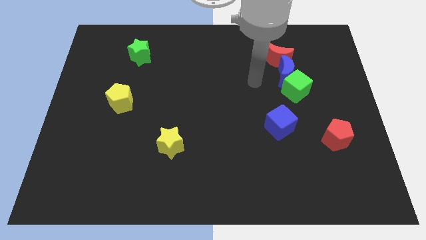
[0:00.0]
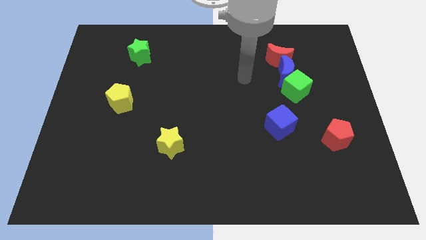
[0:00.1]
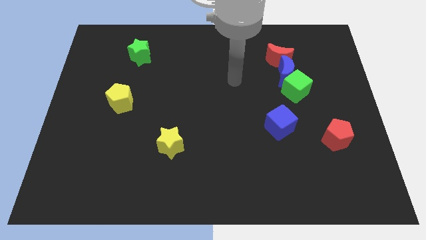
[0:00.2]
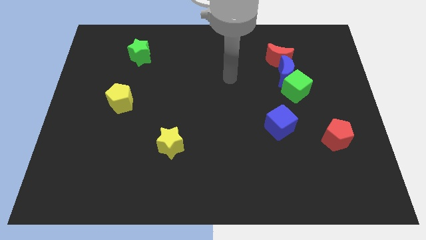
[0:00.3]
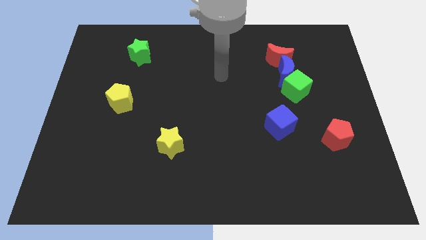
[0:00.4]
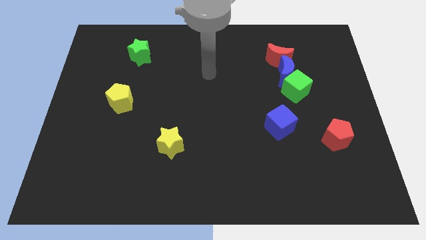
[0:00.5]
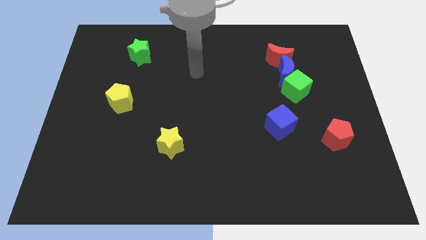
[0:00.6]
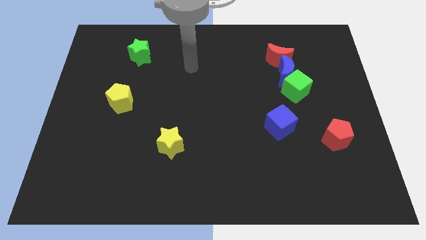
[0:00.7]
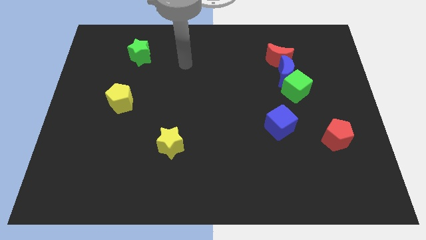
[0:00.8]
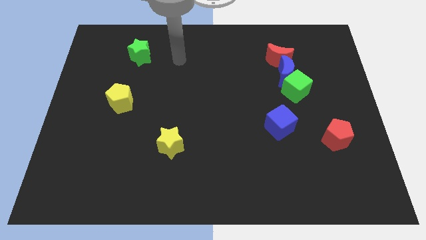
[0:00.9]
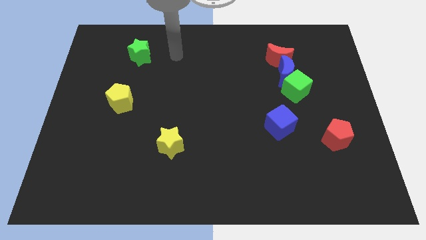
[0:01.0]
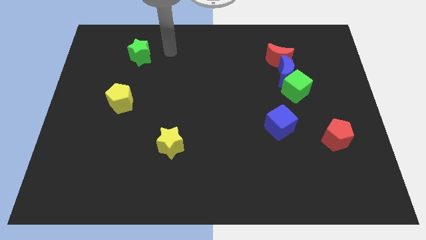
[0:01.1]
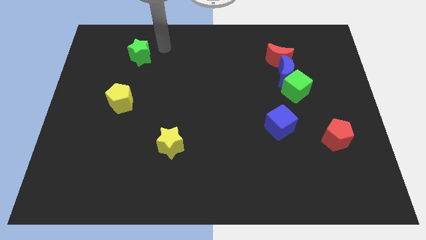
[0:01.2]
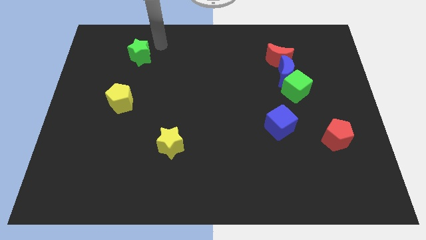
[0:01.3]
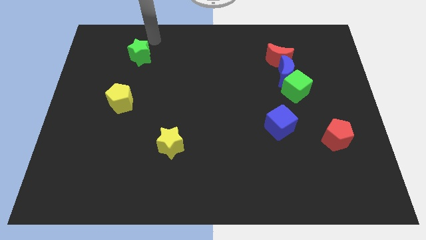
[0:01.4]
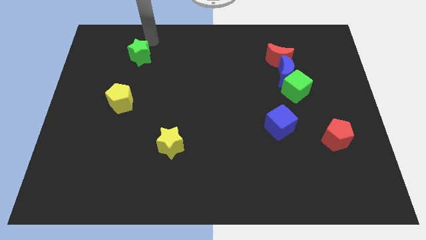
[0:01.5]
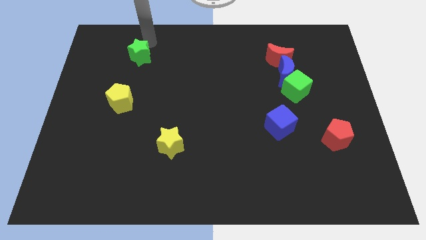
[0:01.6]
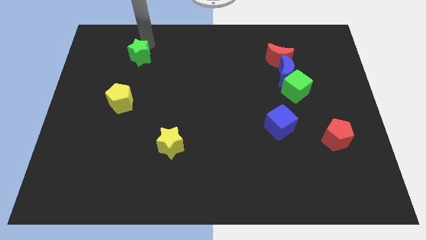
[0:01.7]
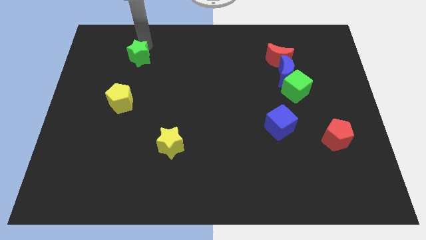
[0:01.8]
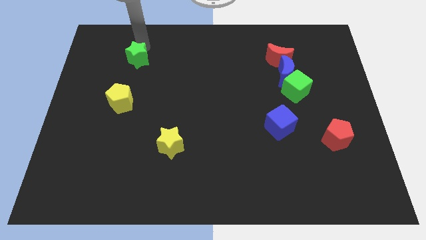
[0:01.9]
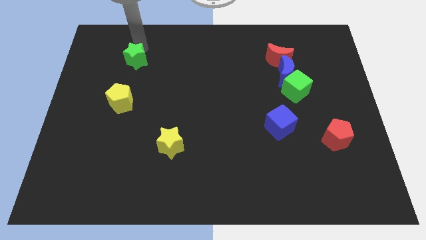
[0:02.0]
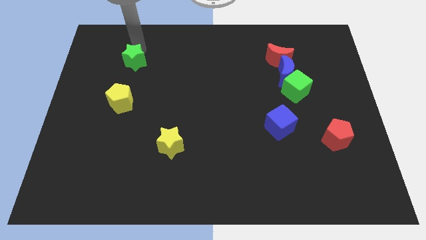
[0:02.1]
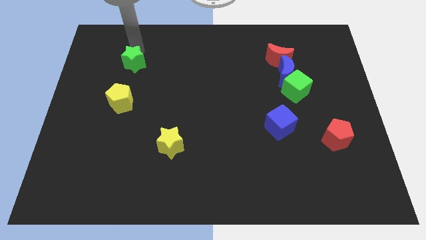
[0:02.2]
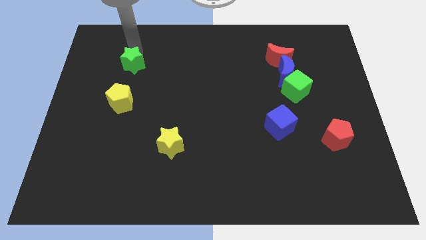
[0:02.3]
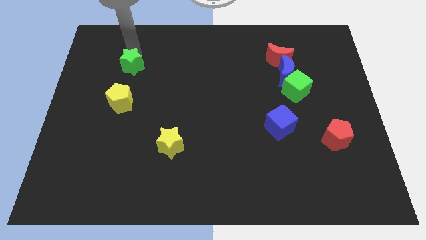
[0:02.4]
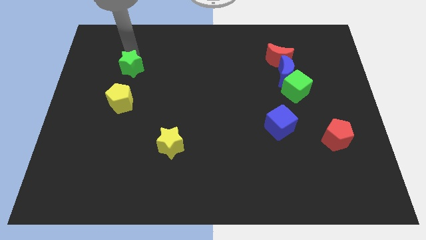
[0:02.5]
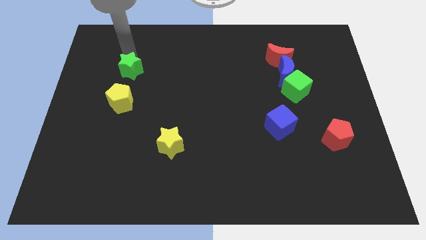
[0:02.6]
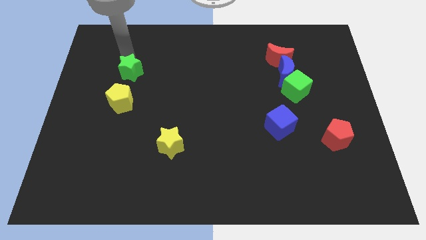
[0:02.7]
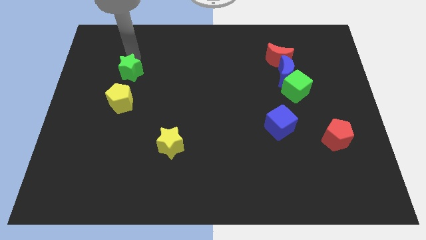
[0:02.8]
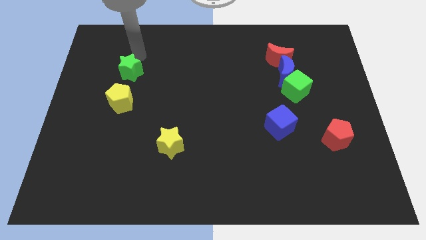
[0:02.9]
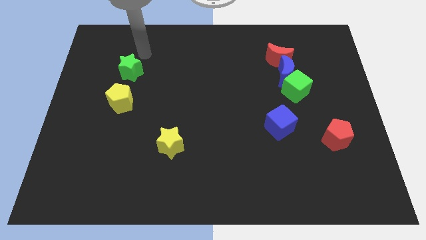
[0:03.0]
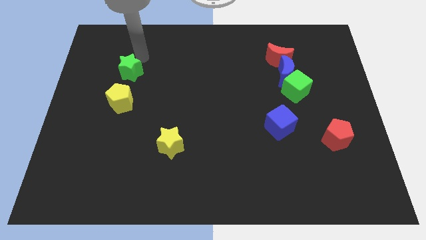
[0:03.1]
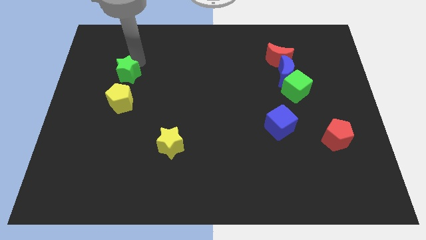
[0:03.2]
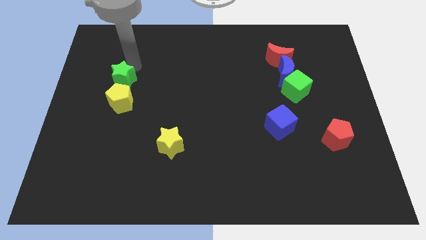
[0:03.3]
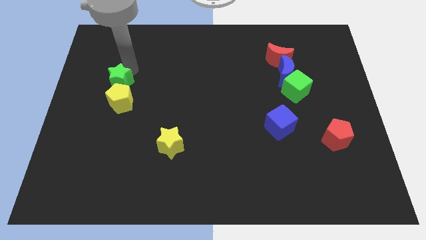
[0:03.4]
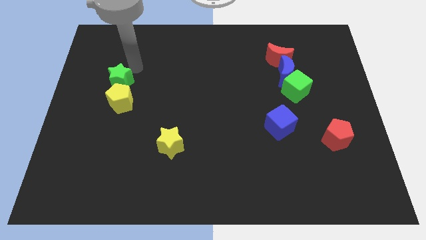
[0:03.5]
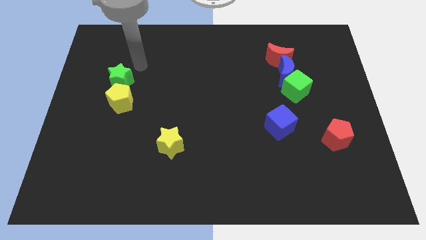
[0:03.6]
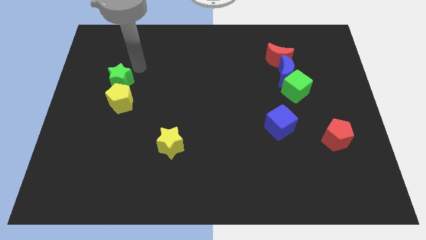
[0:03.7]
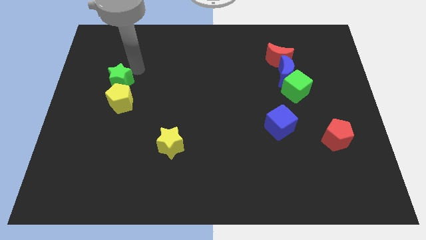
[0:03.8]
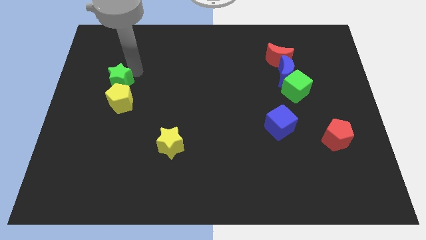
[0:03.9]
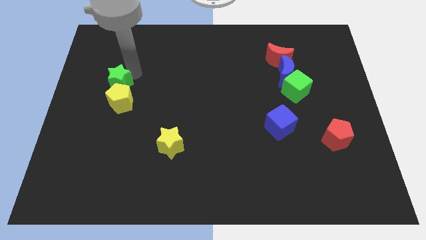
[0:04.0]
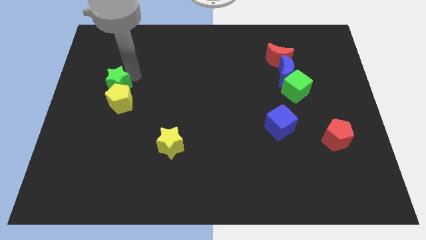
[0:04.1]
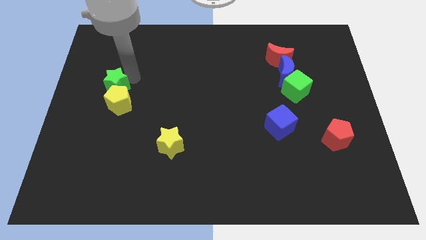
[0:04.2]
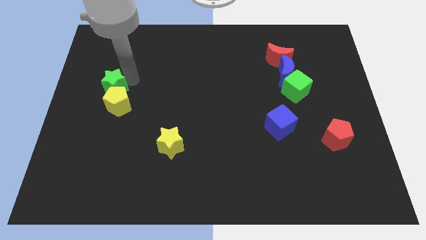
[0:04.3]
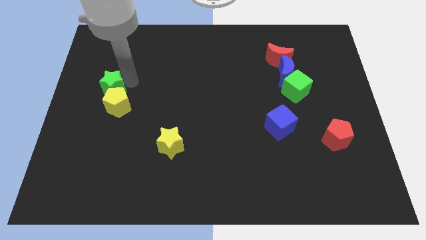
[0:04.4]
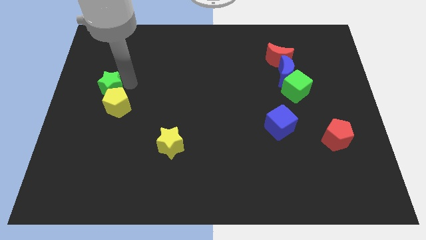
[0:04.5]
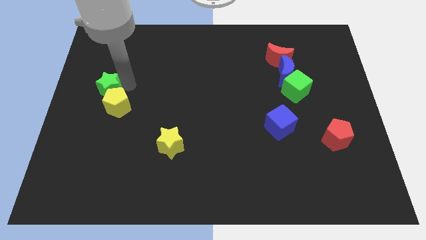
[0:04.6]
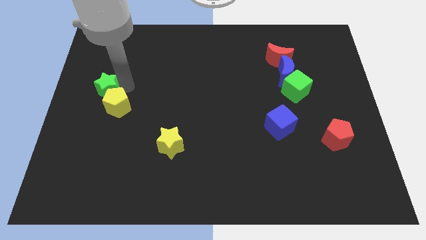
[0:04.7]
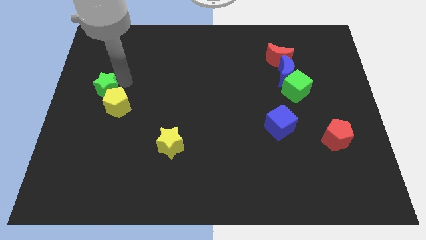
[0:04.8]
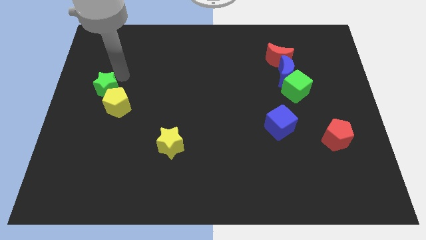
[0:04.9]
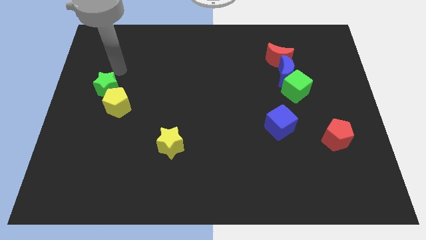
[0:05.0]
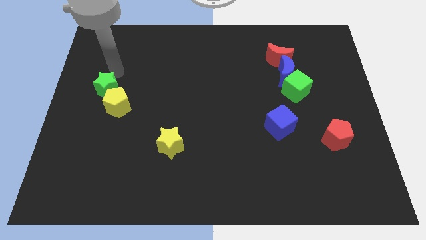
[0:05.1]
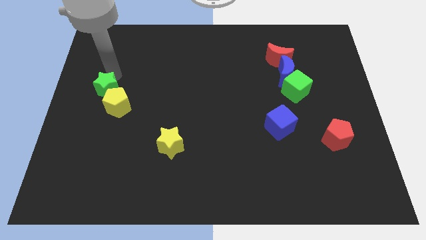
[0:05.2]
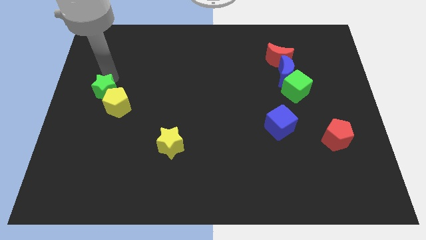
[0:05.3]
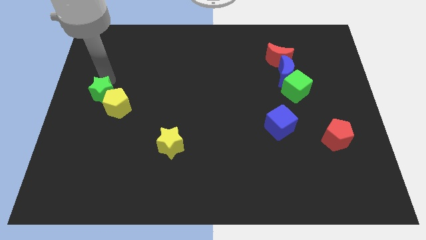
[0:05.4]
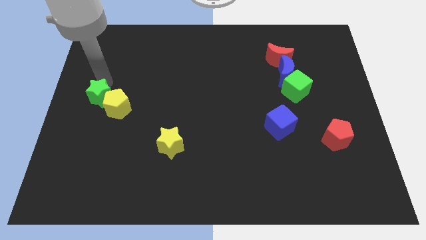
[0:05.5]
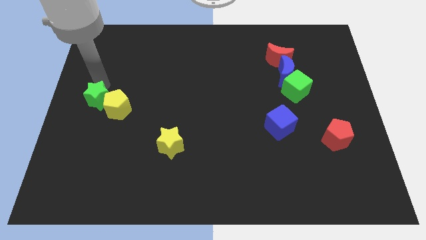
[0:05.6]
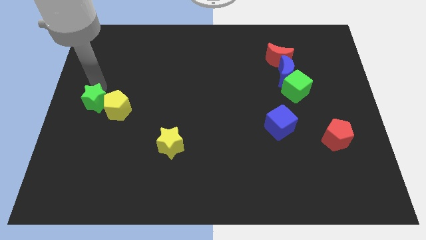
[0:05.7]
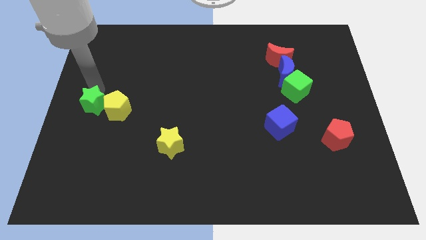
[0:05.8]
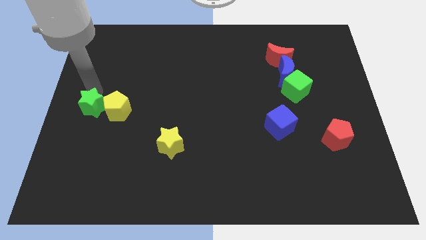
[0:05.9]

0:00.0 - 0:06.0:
push the green star diagonally down and to the left of the yellow pentagon

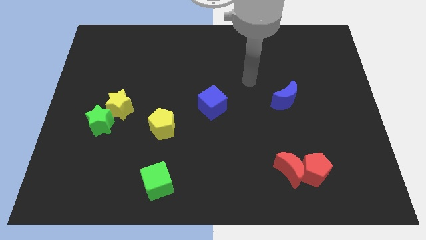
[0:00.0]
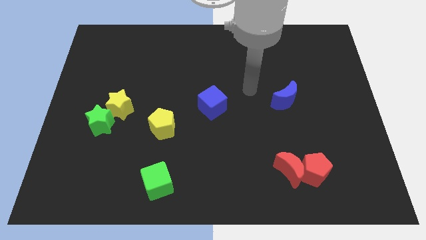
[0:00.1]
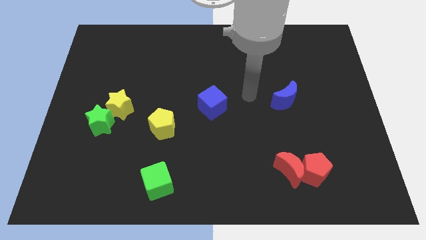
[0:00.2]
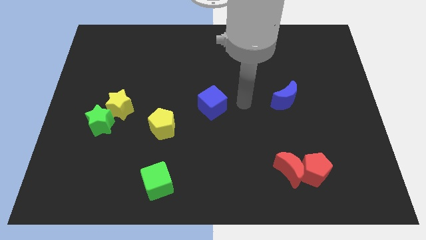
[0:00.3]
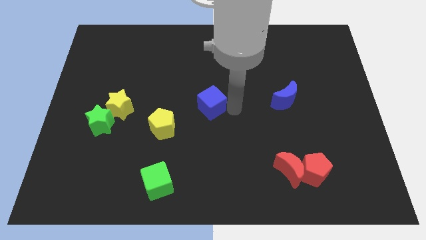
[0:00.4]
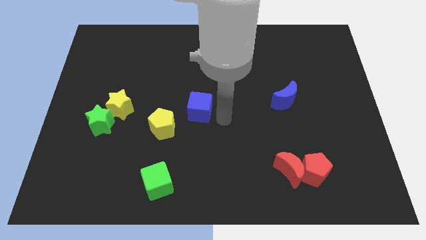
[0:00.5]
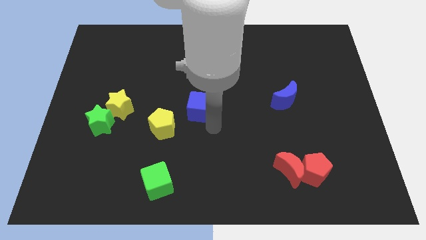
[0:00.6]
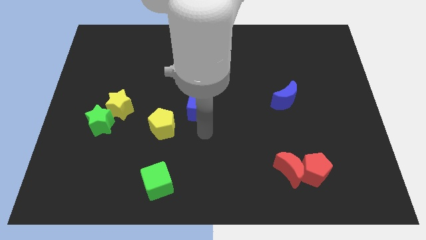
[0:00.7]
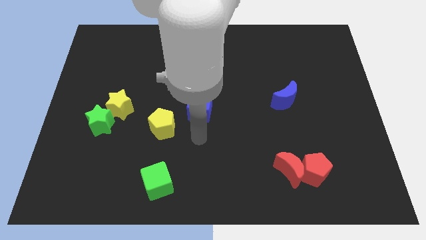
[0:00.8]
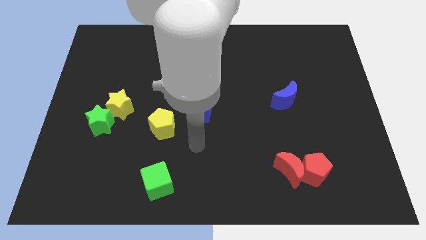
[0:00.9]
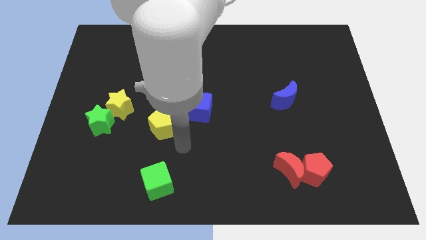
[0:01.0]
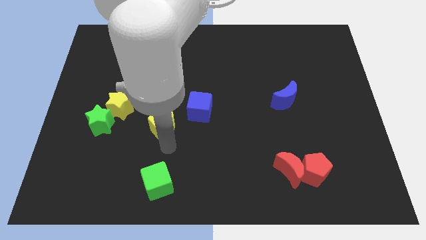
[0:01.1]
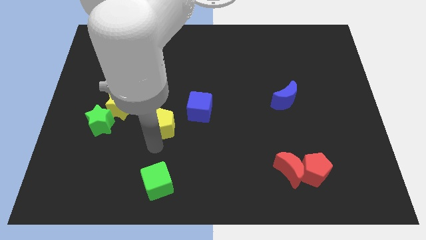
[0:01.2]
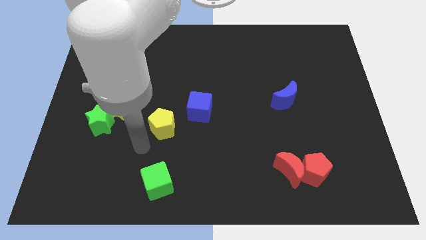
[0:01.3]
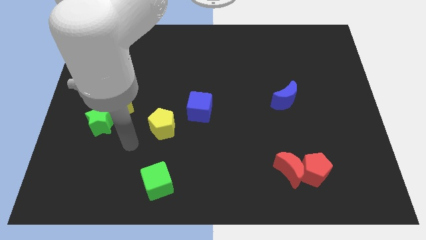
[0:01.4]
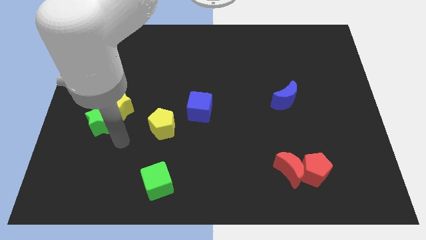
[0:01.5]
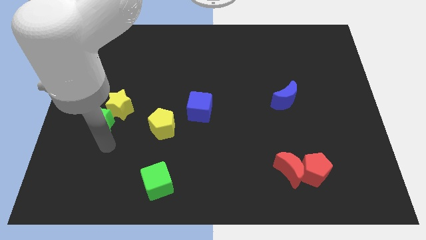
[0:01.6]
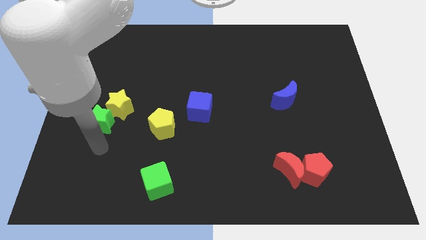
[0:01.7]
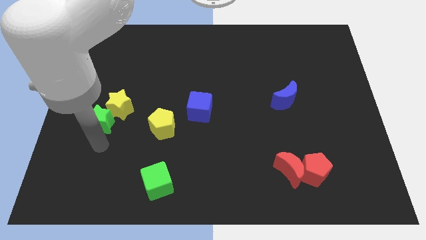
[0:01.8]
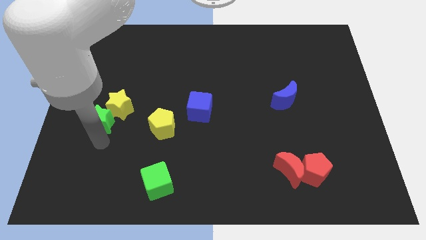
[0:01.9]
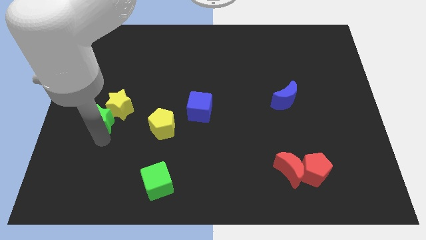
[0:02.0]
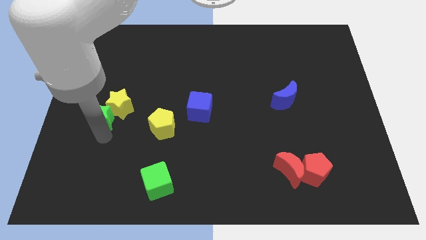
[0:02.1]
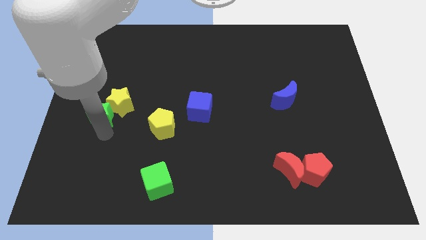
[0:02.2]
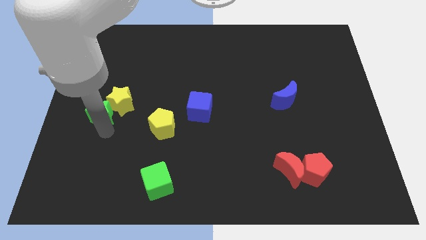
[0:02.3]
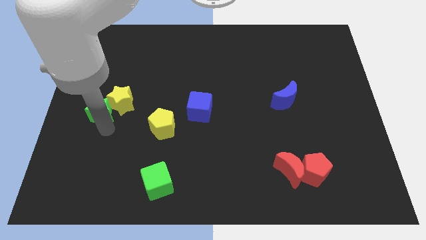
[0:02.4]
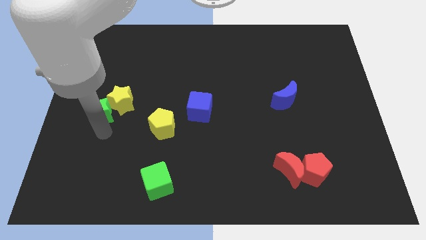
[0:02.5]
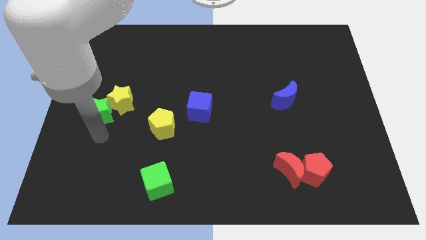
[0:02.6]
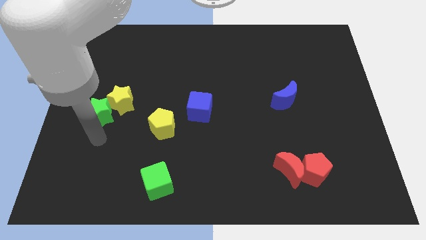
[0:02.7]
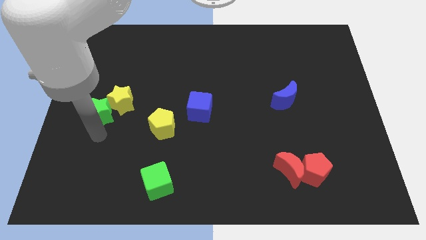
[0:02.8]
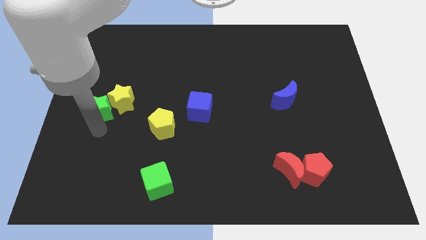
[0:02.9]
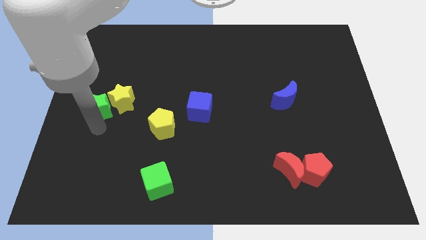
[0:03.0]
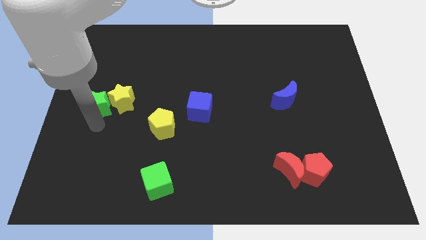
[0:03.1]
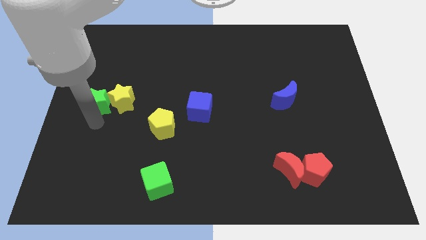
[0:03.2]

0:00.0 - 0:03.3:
push the green star to the top left side of the yellow star
